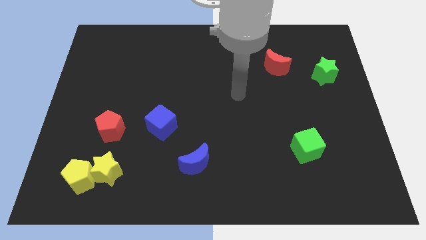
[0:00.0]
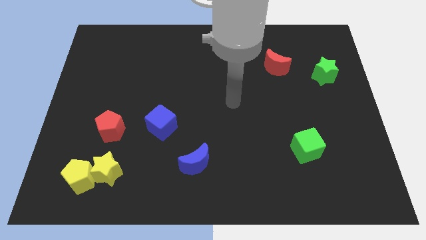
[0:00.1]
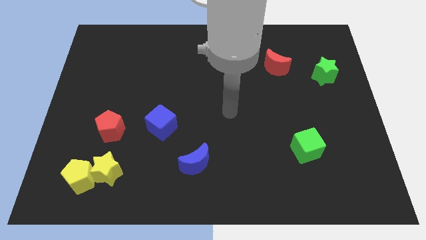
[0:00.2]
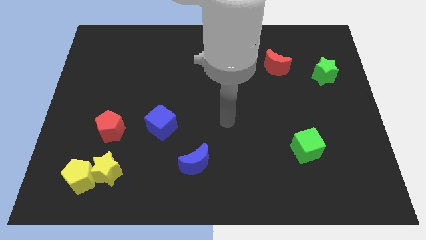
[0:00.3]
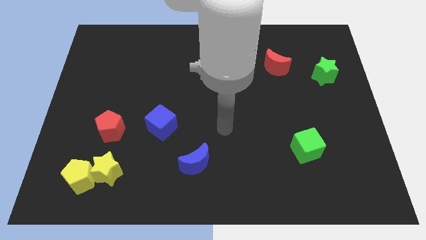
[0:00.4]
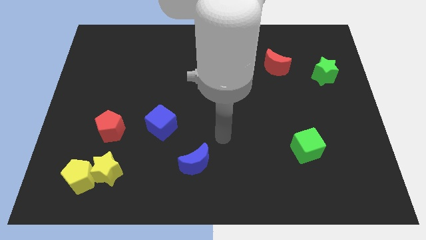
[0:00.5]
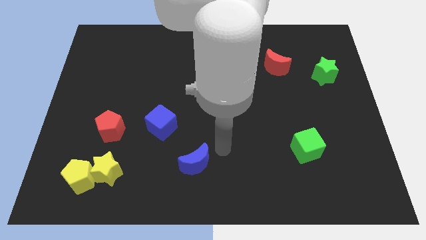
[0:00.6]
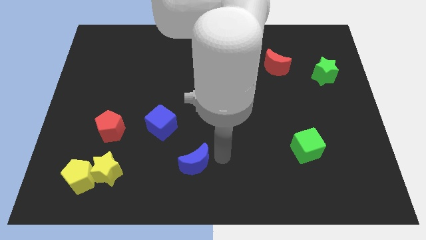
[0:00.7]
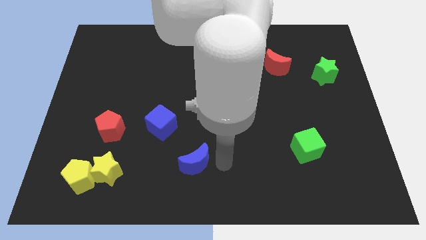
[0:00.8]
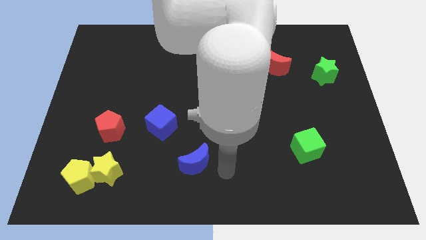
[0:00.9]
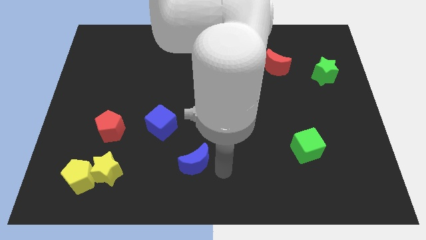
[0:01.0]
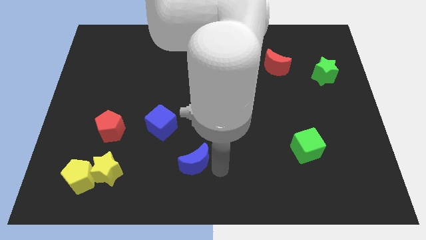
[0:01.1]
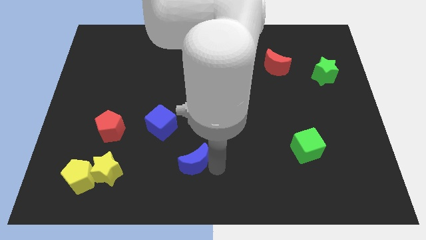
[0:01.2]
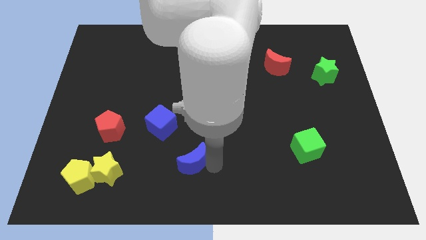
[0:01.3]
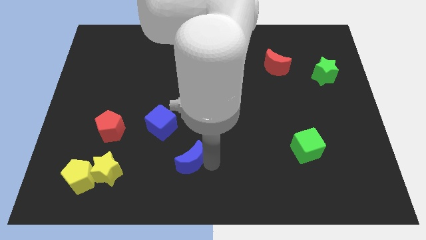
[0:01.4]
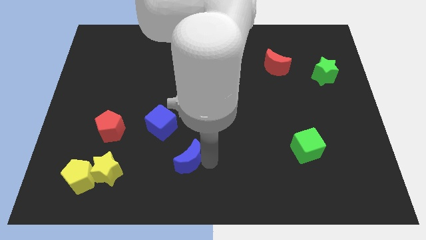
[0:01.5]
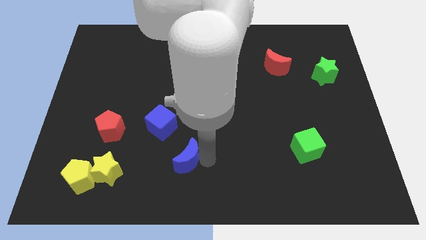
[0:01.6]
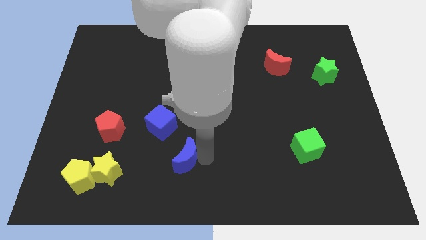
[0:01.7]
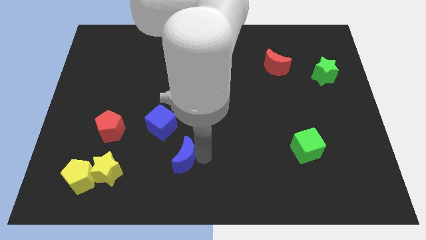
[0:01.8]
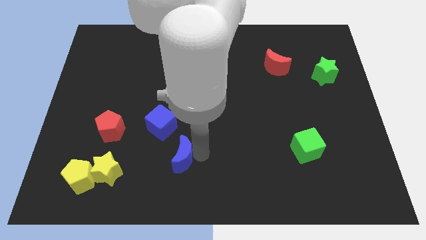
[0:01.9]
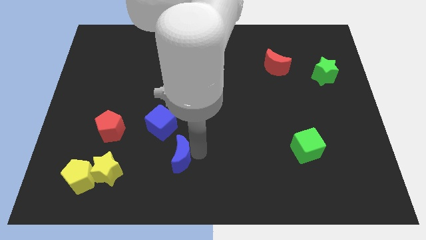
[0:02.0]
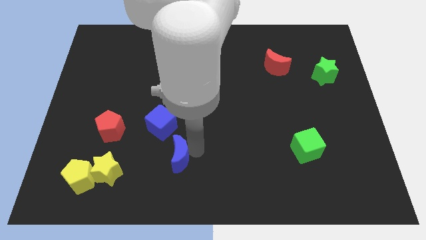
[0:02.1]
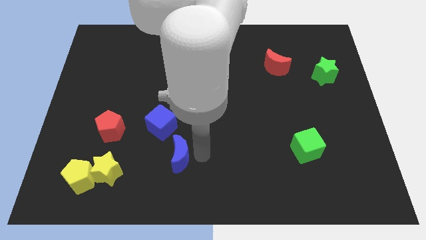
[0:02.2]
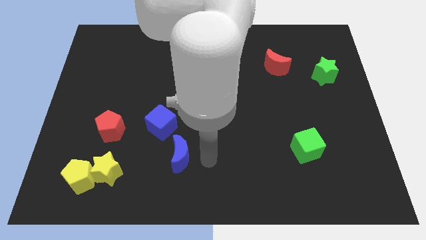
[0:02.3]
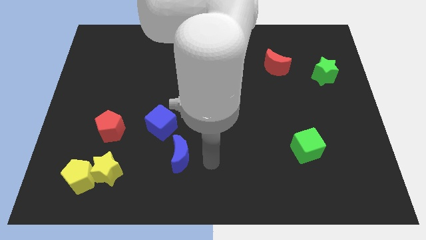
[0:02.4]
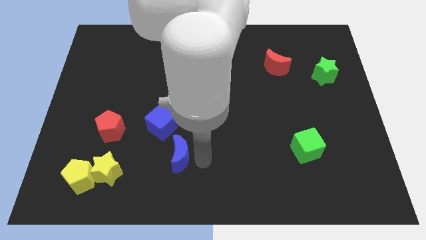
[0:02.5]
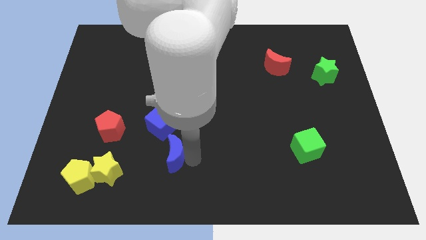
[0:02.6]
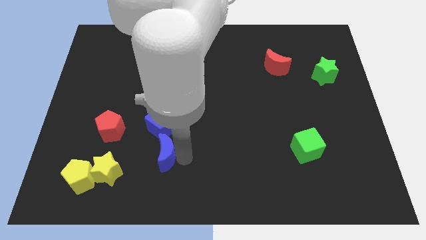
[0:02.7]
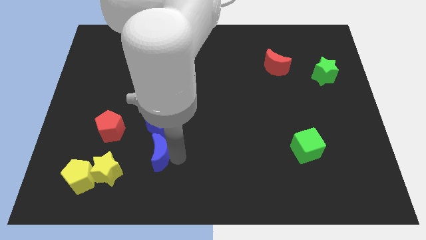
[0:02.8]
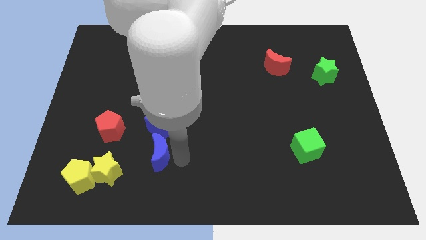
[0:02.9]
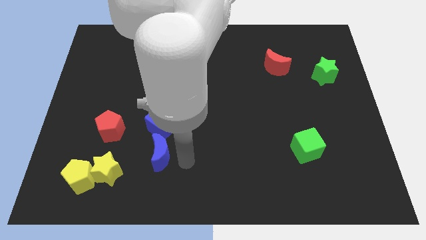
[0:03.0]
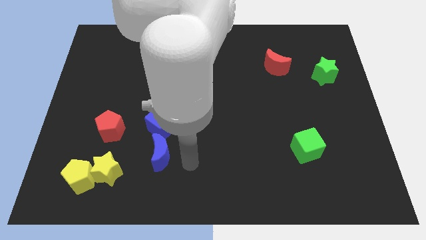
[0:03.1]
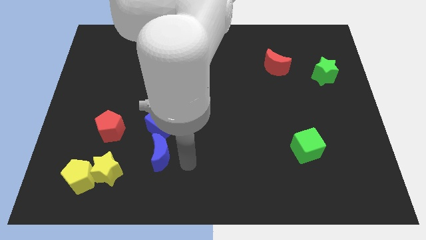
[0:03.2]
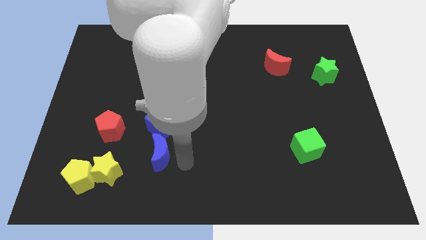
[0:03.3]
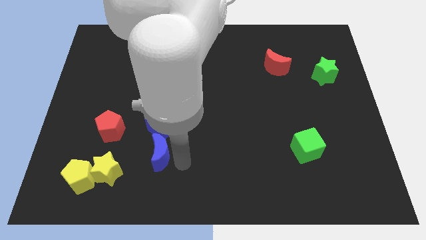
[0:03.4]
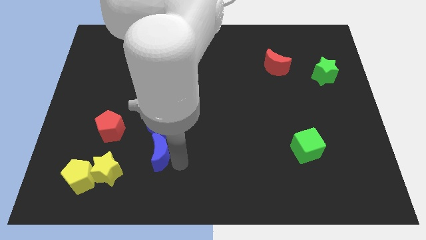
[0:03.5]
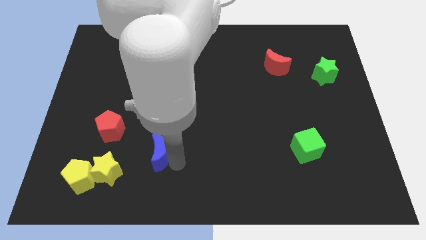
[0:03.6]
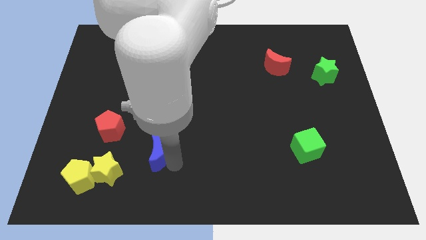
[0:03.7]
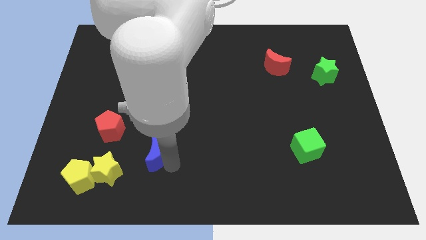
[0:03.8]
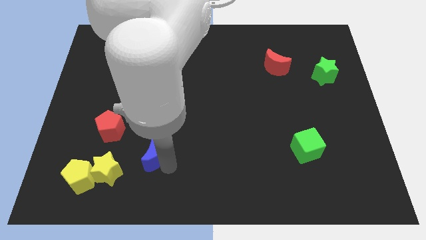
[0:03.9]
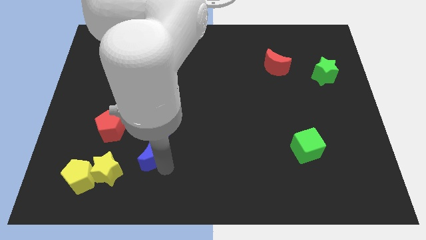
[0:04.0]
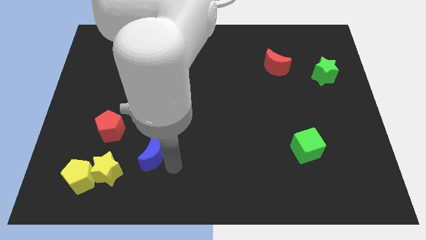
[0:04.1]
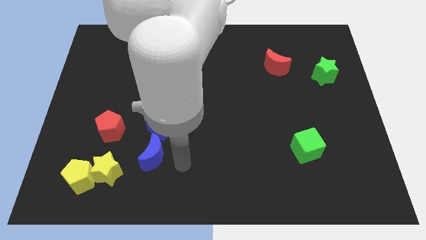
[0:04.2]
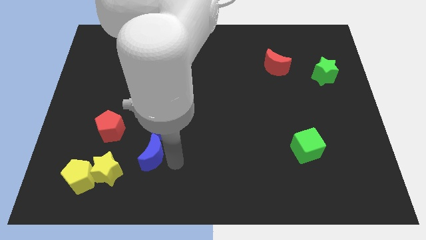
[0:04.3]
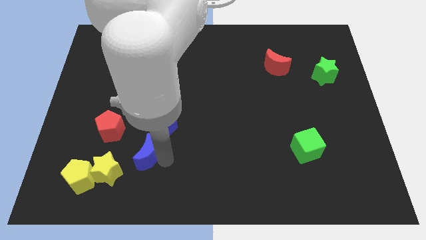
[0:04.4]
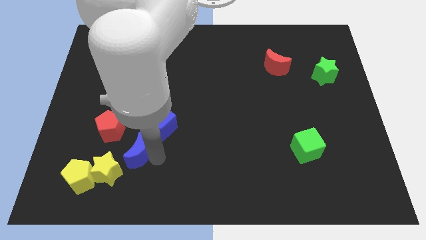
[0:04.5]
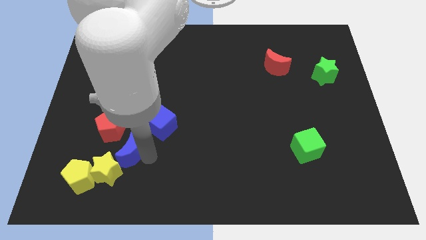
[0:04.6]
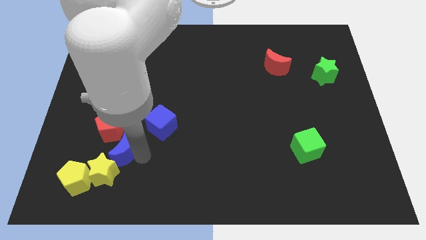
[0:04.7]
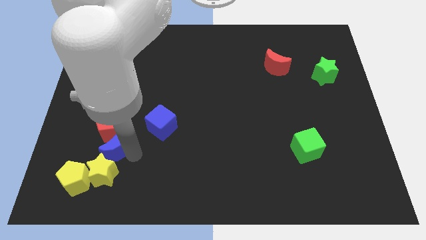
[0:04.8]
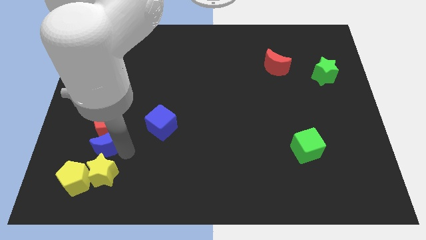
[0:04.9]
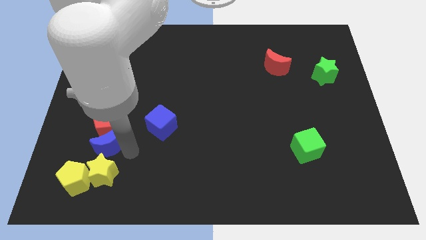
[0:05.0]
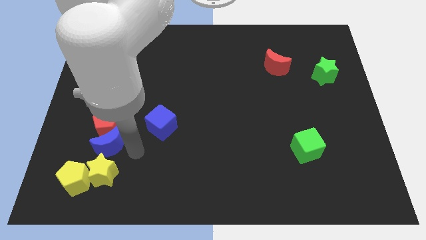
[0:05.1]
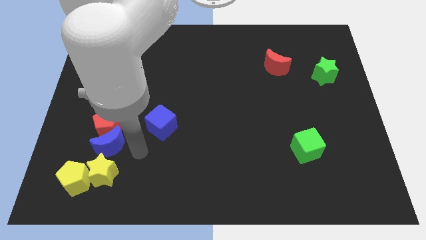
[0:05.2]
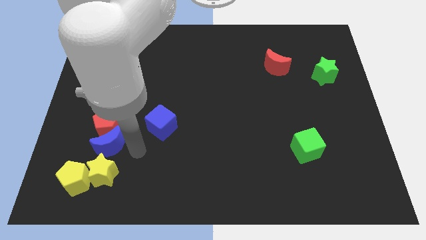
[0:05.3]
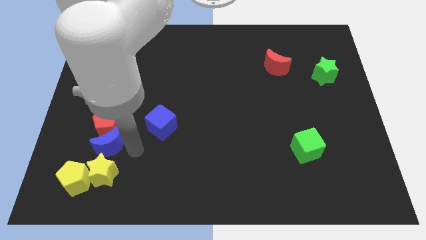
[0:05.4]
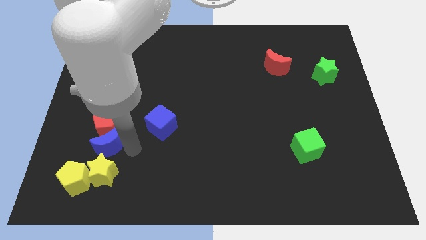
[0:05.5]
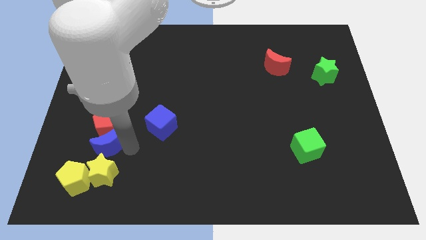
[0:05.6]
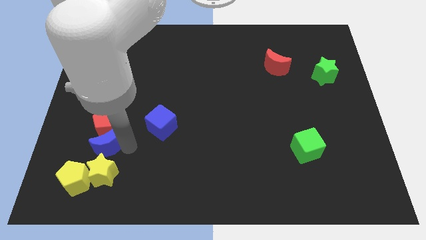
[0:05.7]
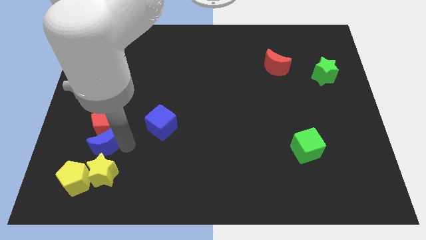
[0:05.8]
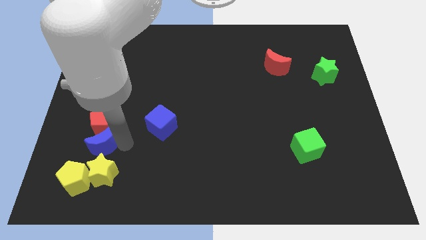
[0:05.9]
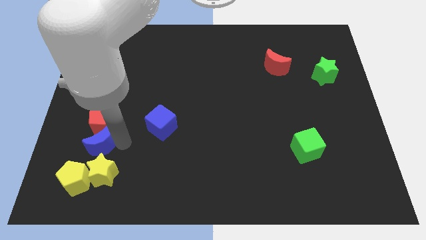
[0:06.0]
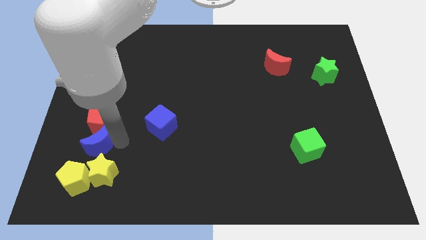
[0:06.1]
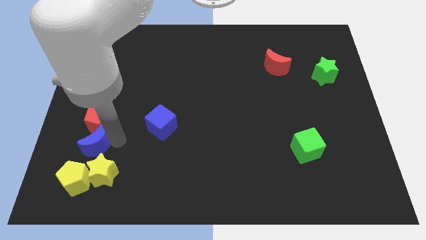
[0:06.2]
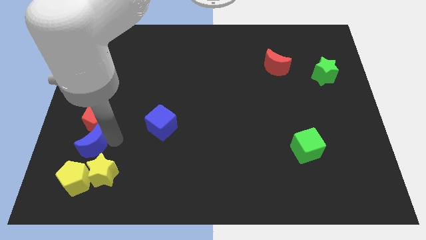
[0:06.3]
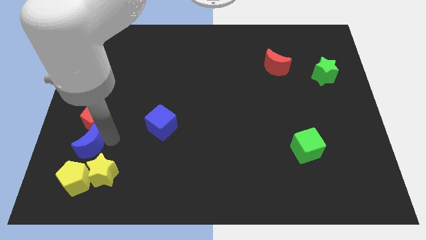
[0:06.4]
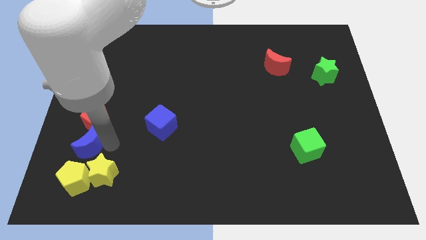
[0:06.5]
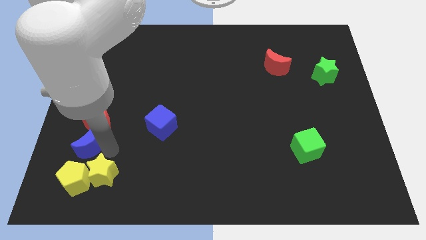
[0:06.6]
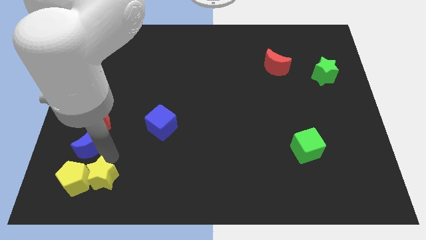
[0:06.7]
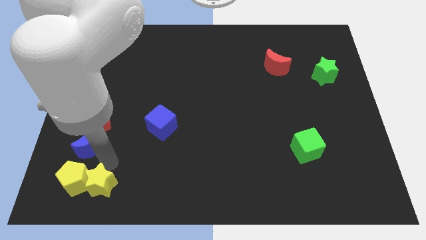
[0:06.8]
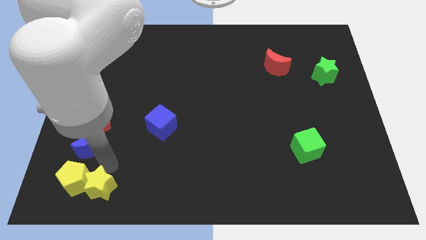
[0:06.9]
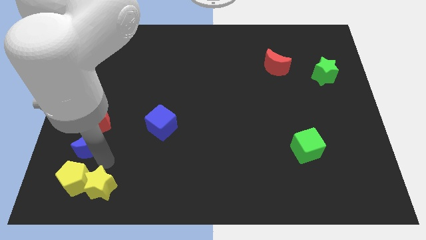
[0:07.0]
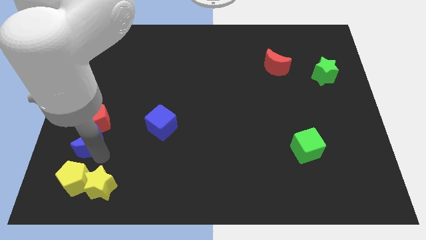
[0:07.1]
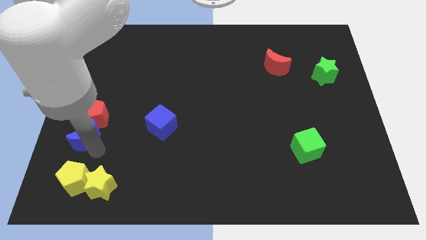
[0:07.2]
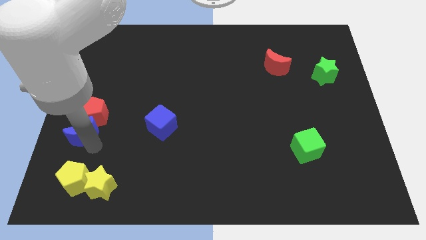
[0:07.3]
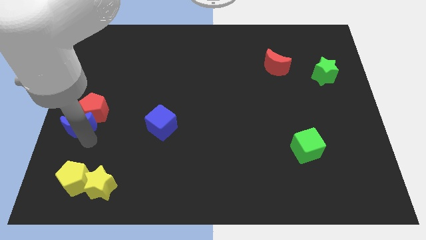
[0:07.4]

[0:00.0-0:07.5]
move the blue moon to the left side of the board
